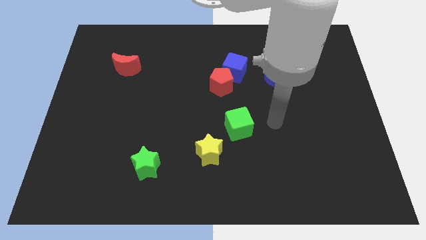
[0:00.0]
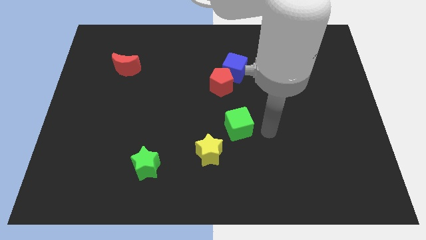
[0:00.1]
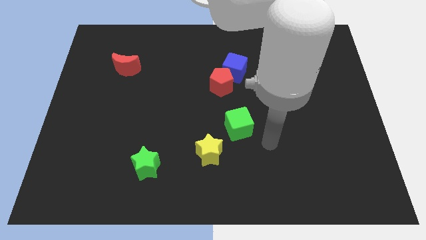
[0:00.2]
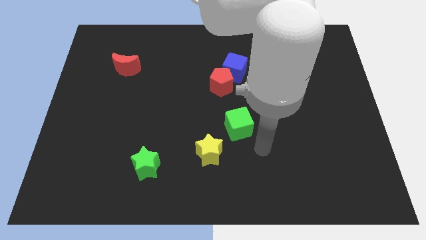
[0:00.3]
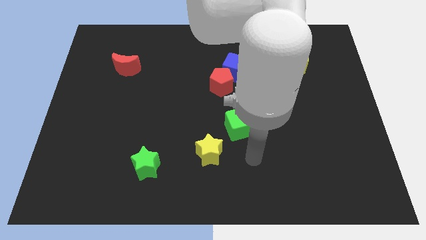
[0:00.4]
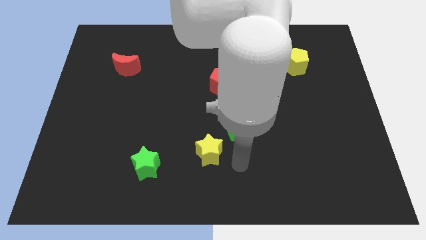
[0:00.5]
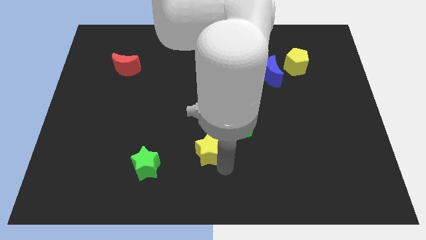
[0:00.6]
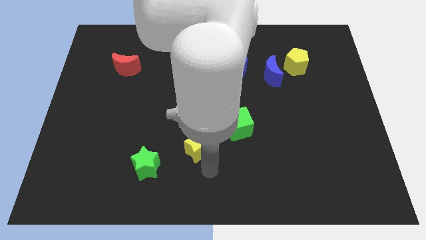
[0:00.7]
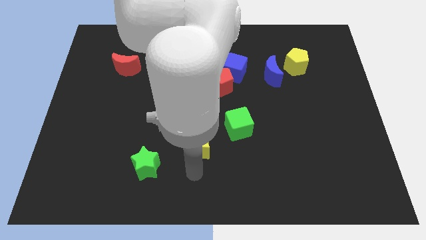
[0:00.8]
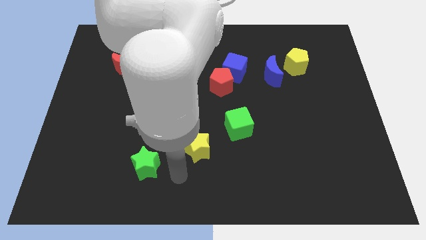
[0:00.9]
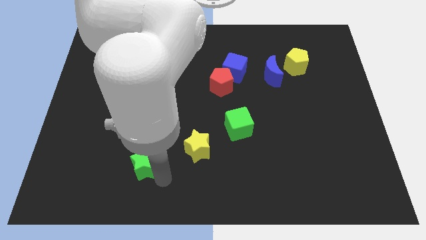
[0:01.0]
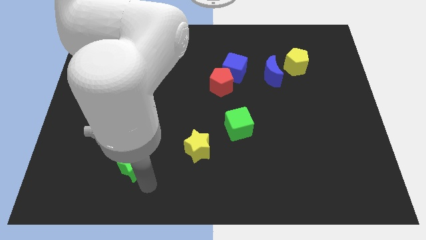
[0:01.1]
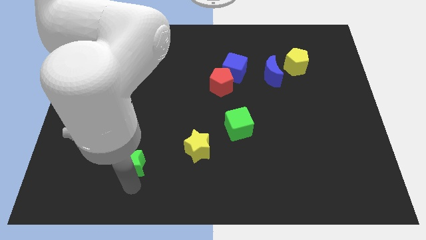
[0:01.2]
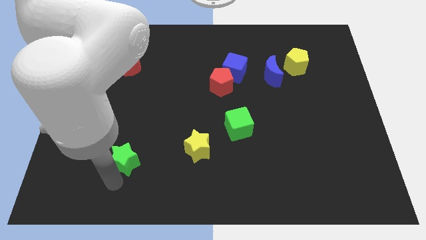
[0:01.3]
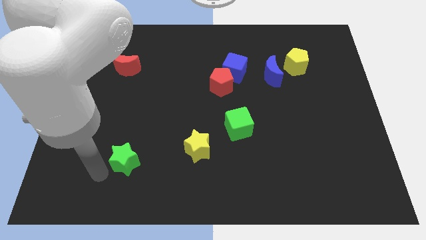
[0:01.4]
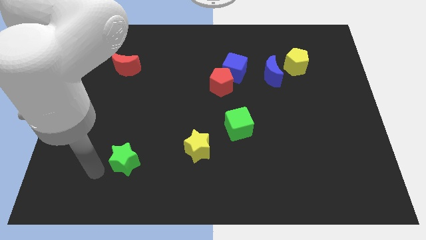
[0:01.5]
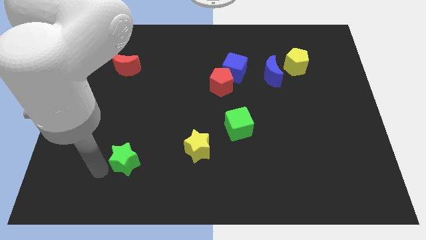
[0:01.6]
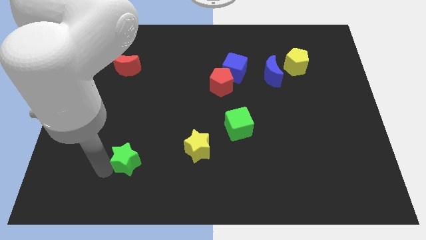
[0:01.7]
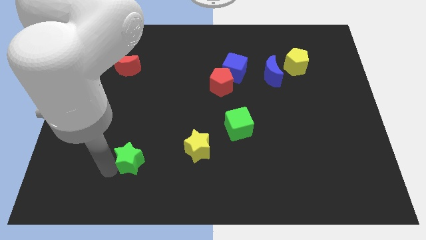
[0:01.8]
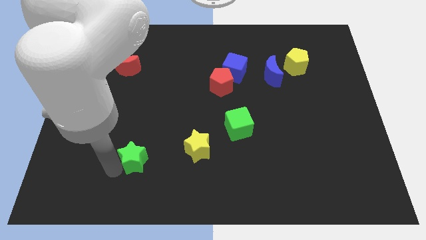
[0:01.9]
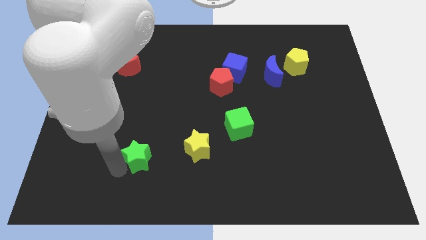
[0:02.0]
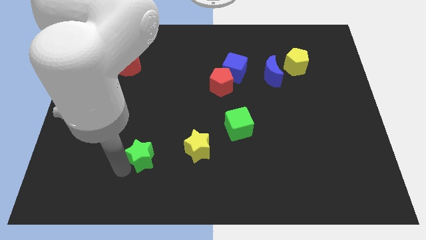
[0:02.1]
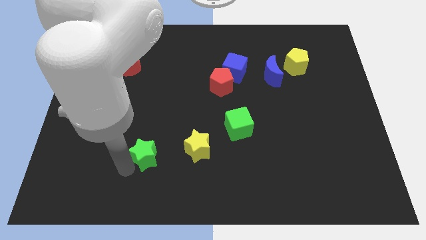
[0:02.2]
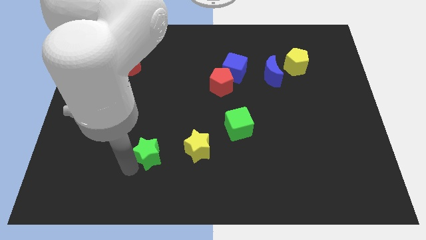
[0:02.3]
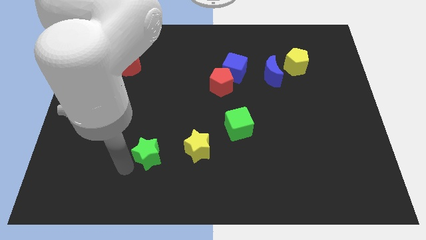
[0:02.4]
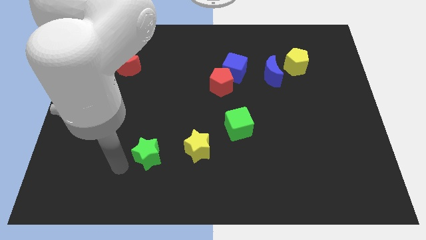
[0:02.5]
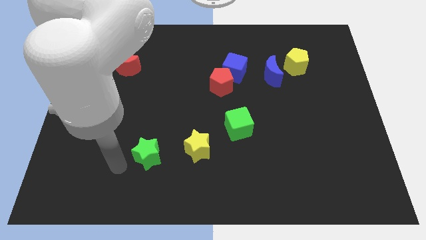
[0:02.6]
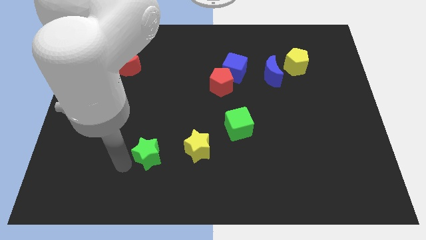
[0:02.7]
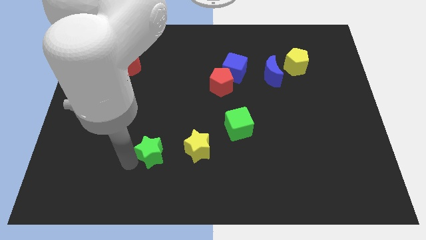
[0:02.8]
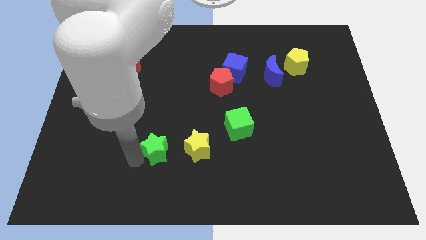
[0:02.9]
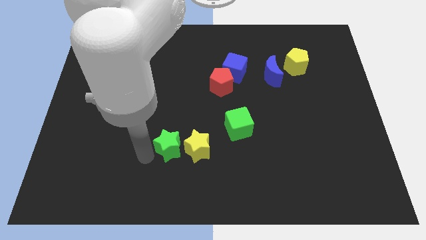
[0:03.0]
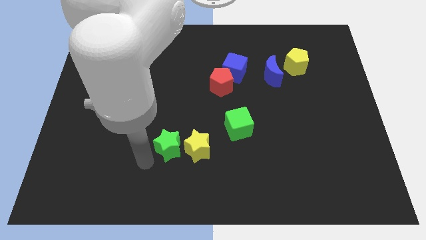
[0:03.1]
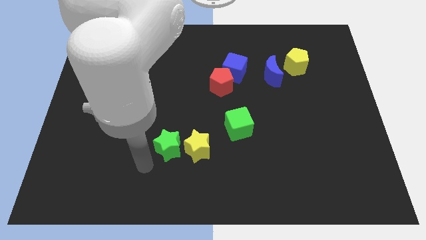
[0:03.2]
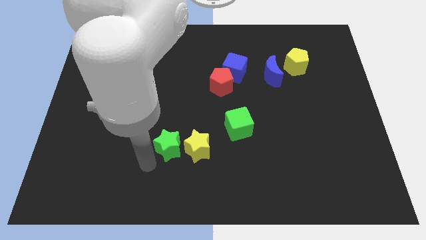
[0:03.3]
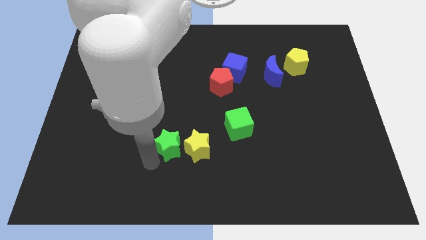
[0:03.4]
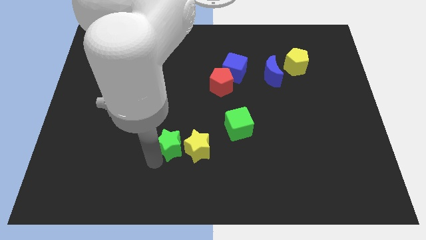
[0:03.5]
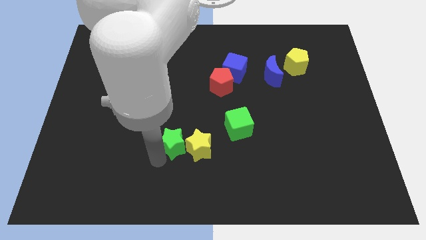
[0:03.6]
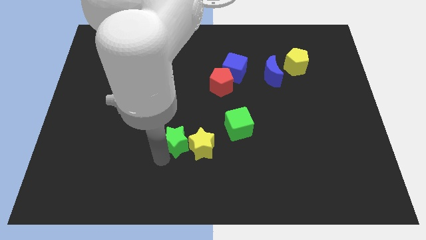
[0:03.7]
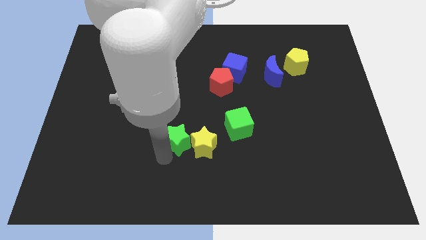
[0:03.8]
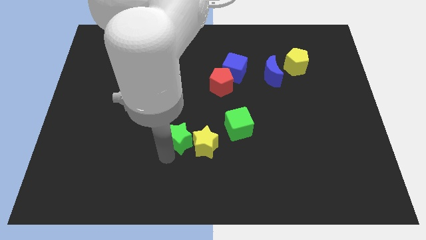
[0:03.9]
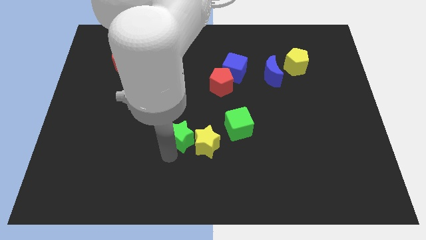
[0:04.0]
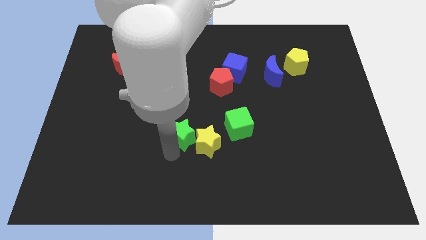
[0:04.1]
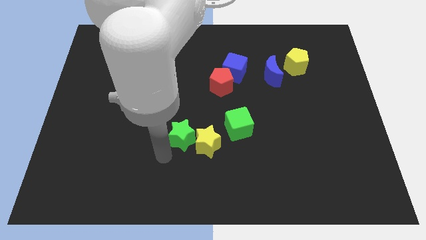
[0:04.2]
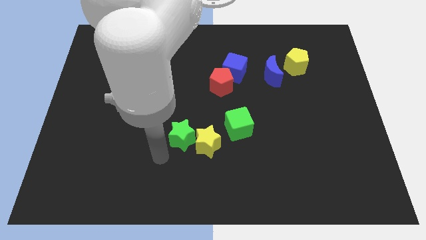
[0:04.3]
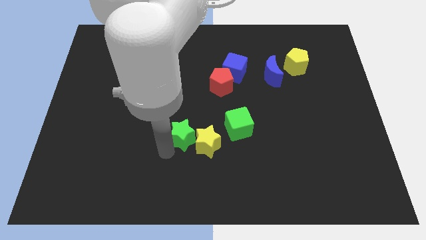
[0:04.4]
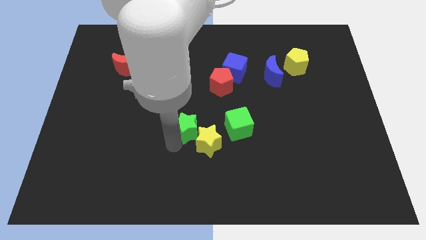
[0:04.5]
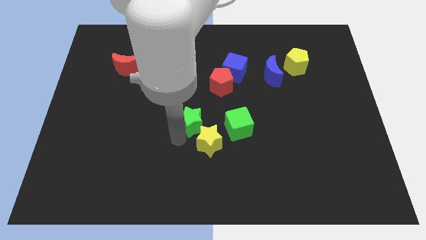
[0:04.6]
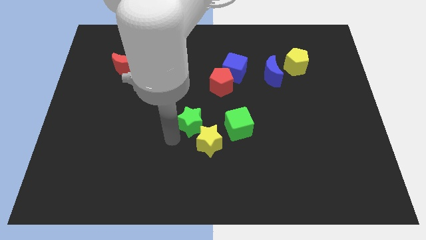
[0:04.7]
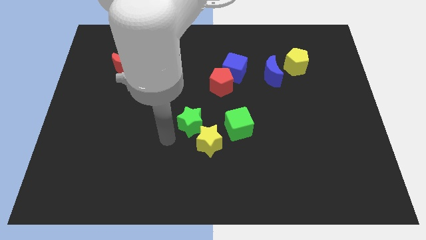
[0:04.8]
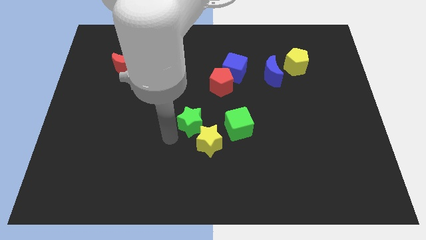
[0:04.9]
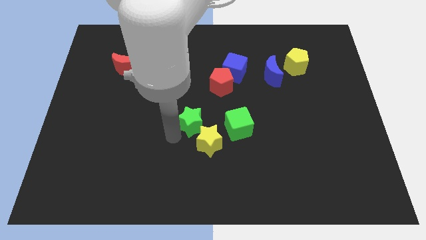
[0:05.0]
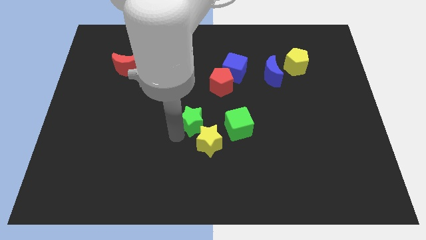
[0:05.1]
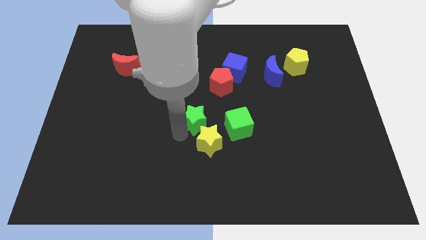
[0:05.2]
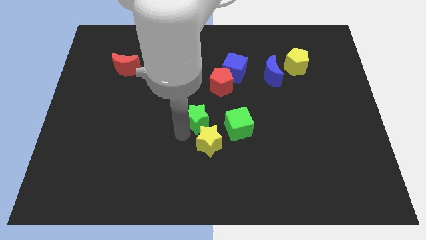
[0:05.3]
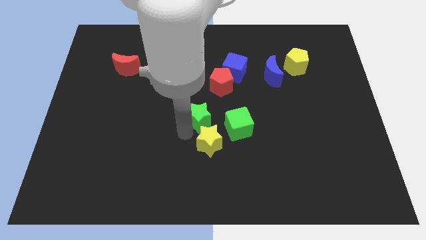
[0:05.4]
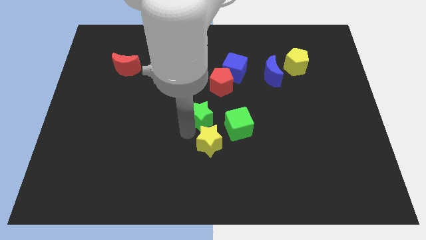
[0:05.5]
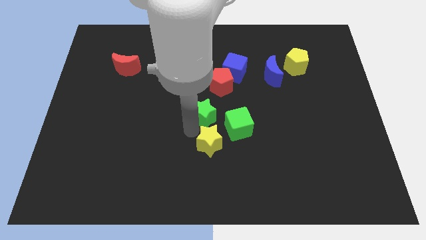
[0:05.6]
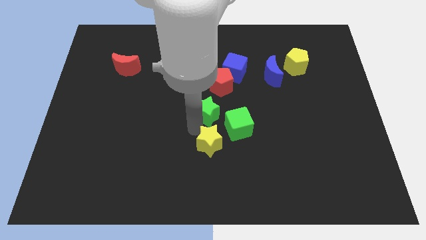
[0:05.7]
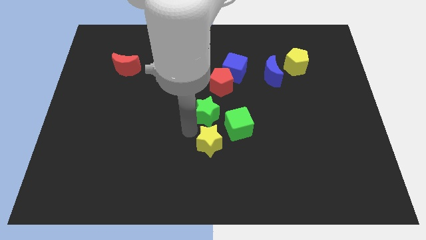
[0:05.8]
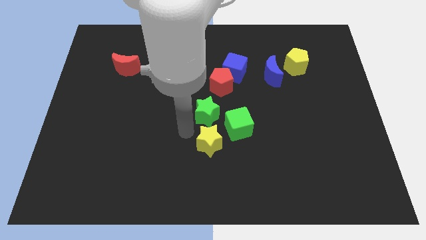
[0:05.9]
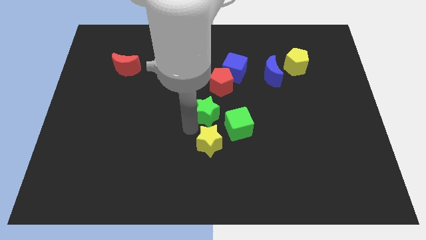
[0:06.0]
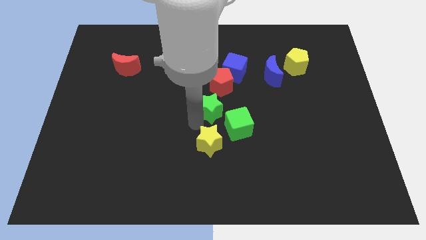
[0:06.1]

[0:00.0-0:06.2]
slide the green star upwards and to the right diagonally

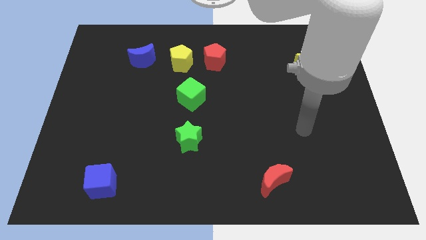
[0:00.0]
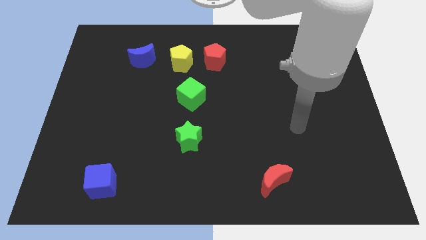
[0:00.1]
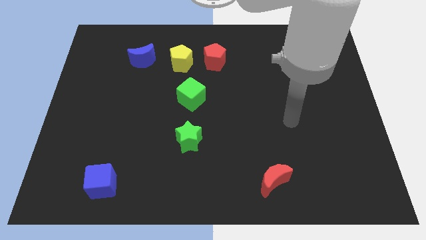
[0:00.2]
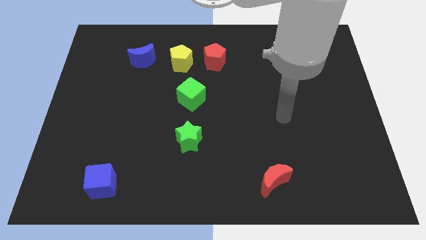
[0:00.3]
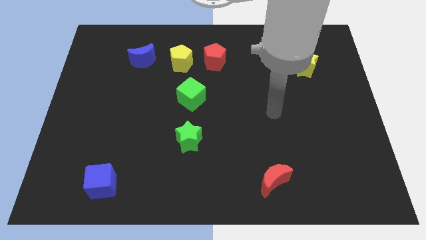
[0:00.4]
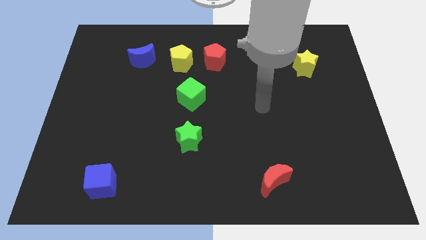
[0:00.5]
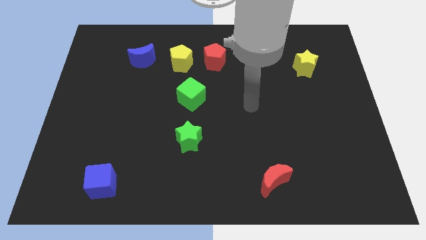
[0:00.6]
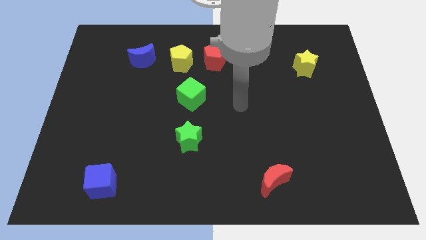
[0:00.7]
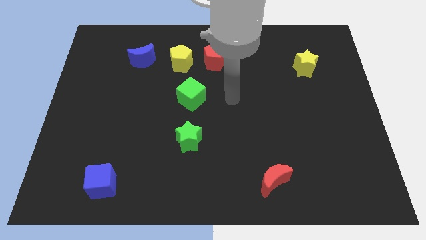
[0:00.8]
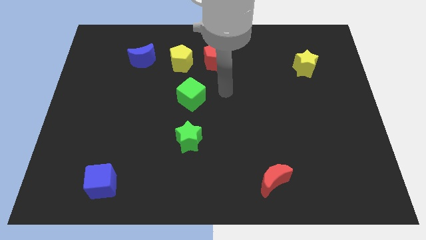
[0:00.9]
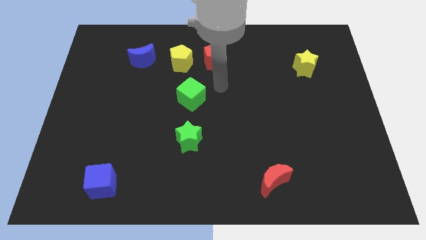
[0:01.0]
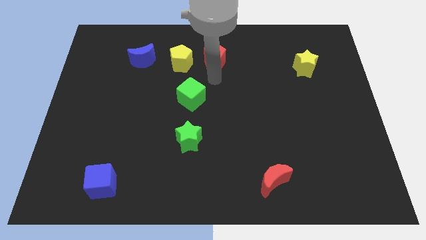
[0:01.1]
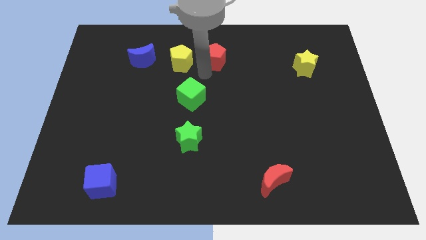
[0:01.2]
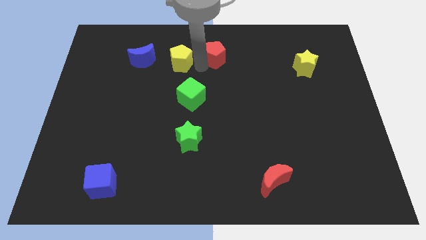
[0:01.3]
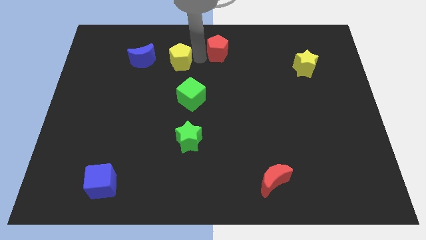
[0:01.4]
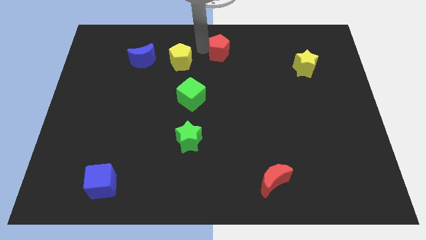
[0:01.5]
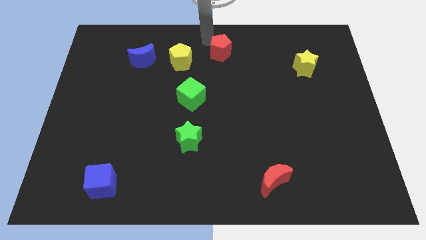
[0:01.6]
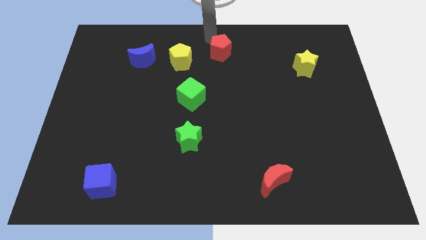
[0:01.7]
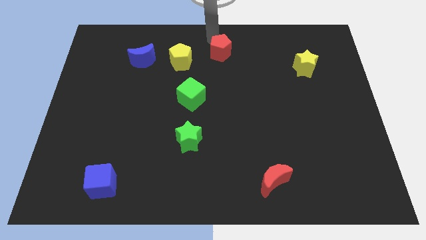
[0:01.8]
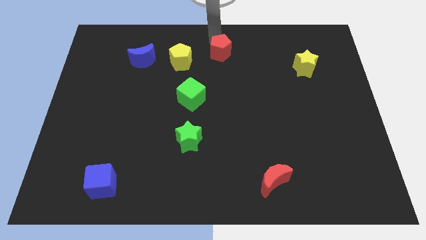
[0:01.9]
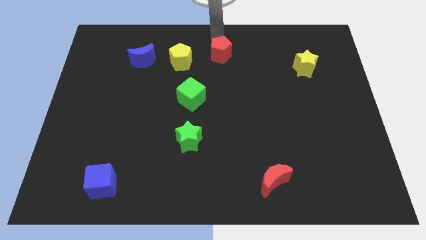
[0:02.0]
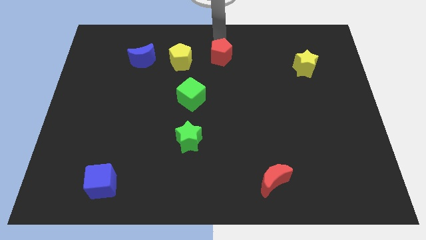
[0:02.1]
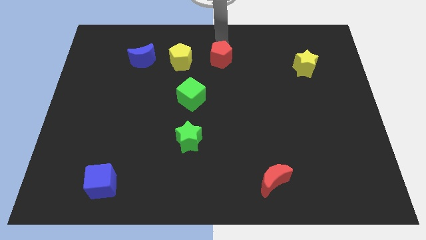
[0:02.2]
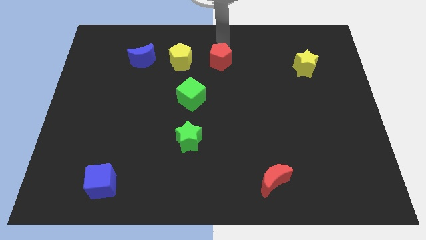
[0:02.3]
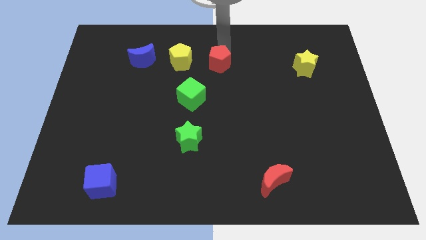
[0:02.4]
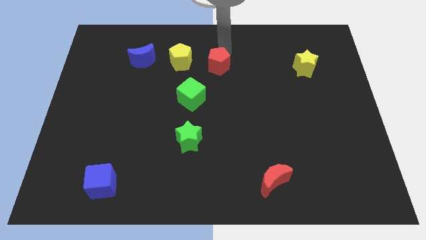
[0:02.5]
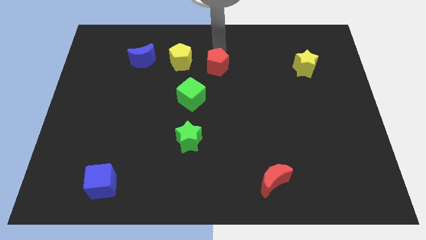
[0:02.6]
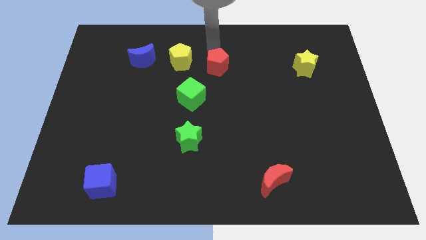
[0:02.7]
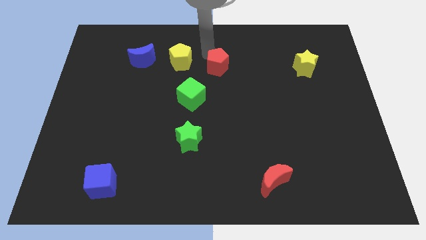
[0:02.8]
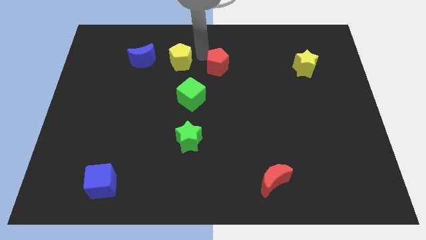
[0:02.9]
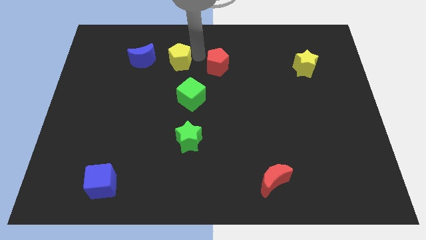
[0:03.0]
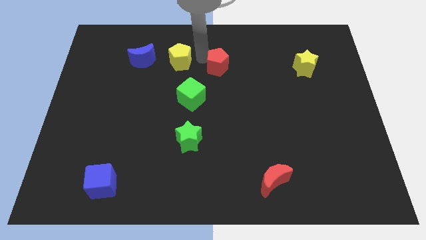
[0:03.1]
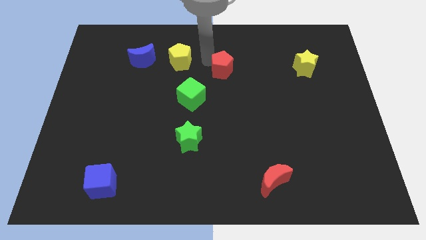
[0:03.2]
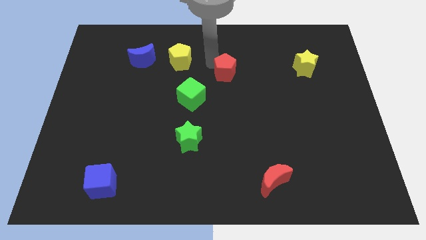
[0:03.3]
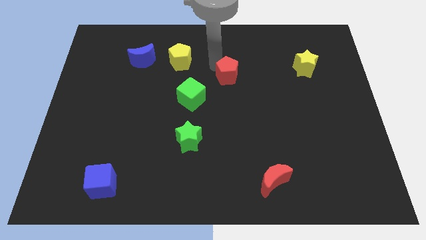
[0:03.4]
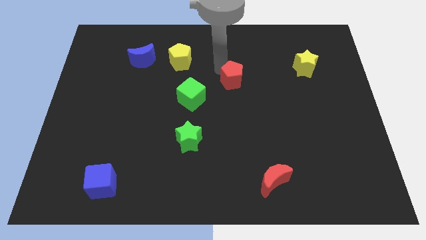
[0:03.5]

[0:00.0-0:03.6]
move the red pentagon downwards and to the right somewhat
